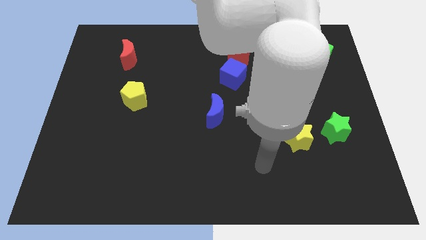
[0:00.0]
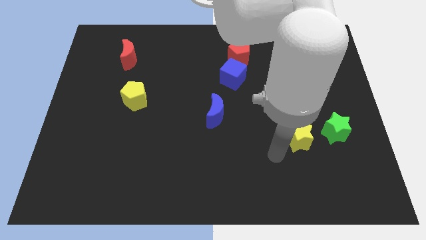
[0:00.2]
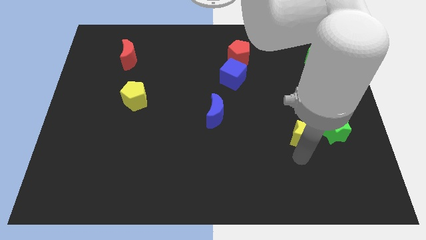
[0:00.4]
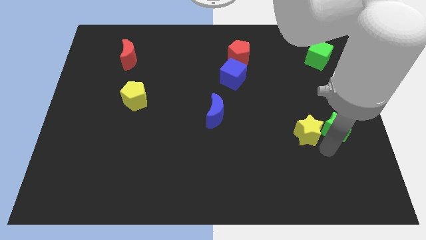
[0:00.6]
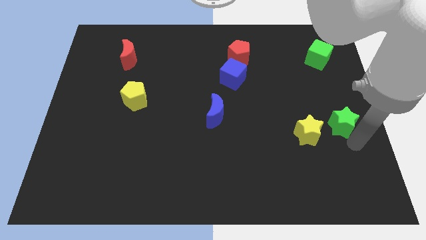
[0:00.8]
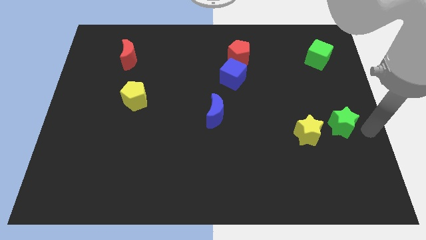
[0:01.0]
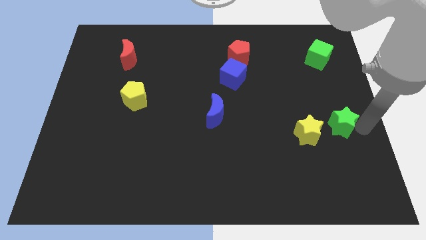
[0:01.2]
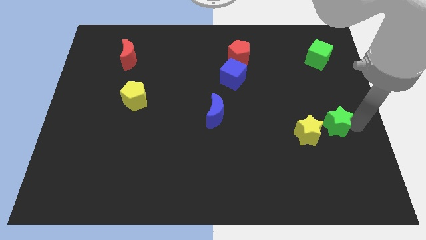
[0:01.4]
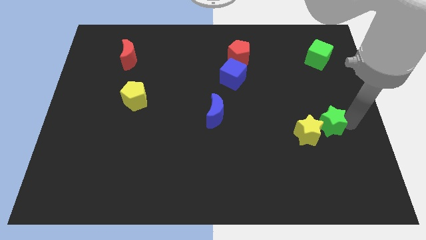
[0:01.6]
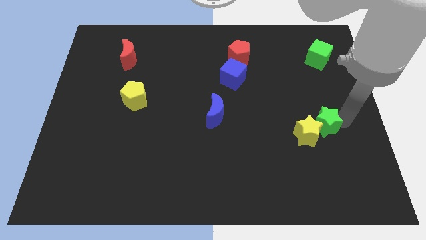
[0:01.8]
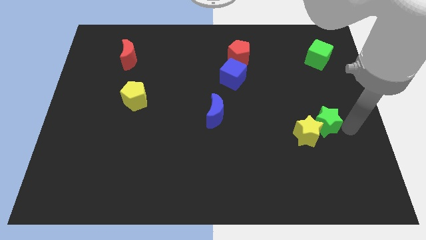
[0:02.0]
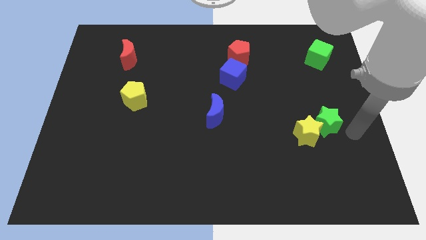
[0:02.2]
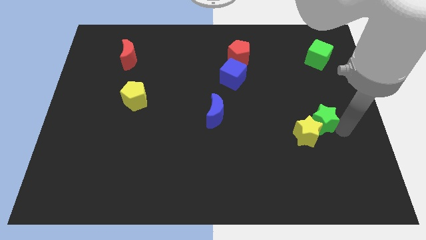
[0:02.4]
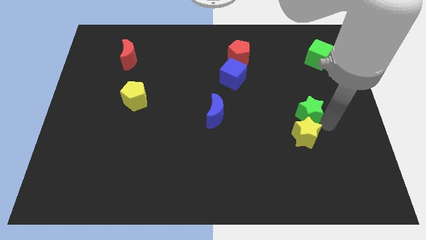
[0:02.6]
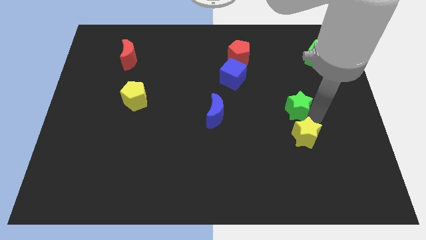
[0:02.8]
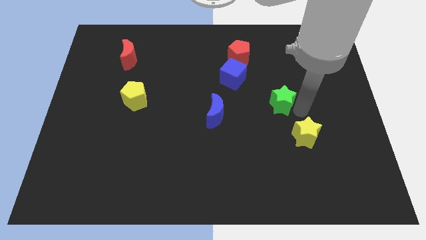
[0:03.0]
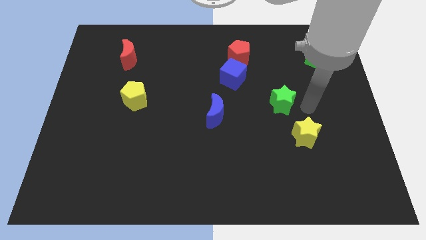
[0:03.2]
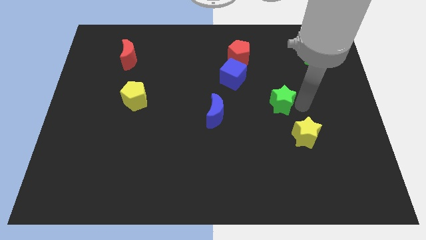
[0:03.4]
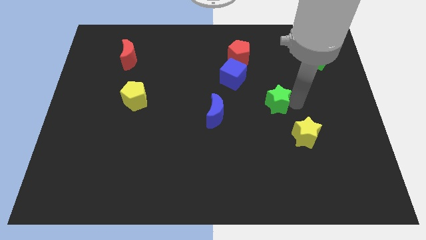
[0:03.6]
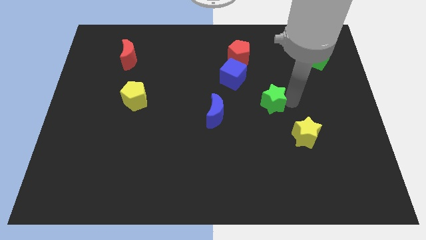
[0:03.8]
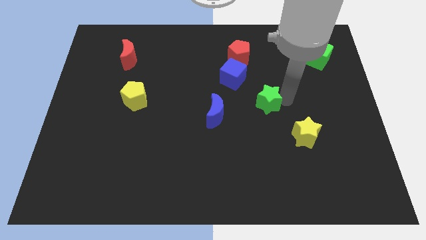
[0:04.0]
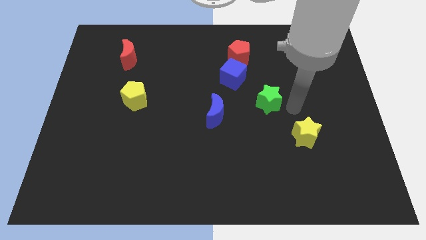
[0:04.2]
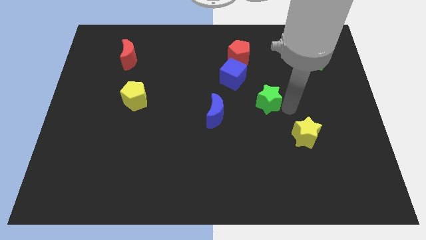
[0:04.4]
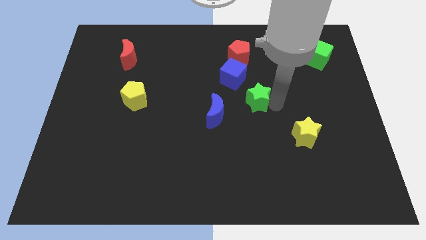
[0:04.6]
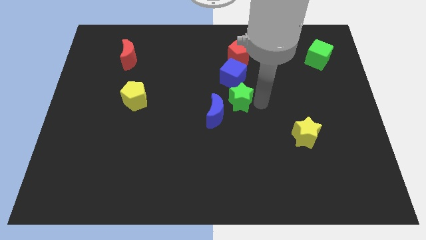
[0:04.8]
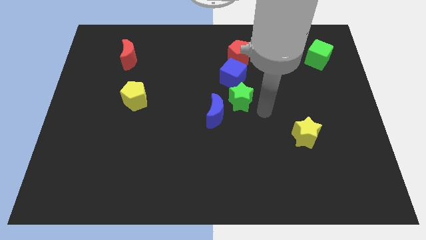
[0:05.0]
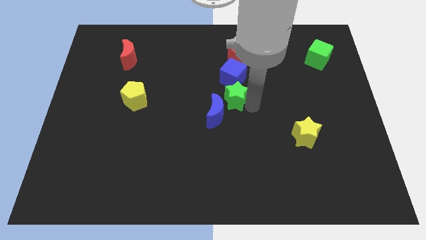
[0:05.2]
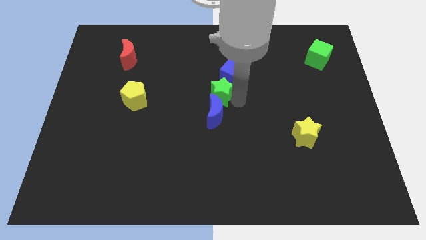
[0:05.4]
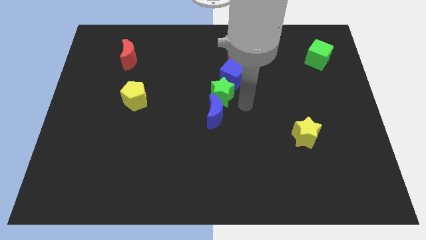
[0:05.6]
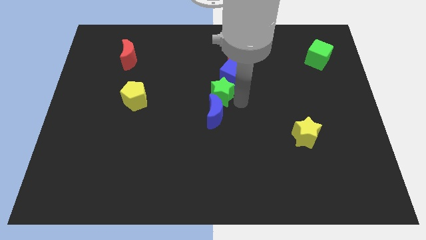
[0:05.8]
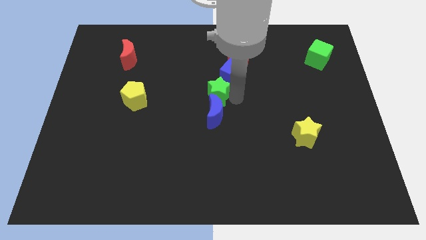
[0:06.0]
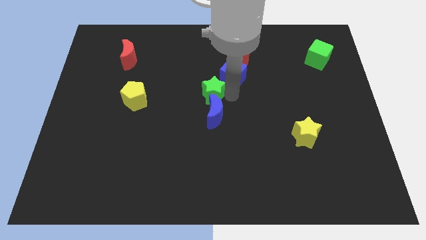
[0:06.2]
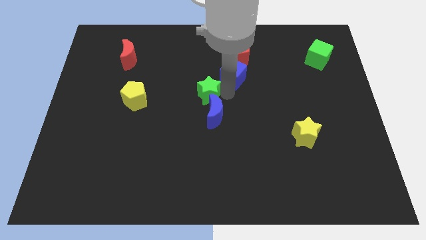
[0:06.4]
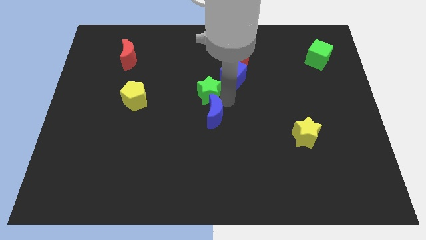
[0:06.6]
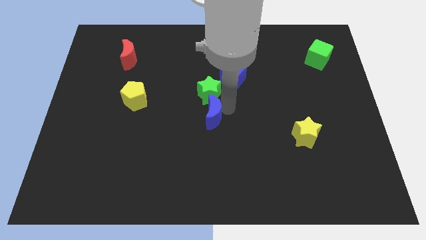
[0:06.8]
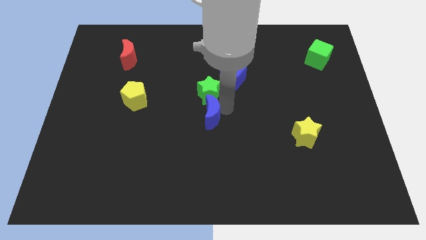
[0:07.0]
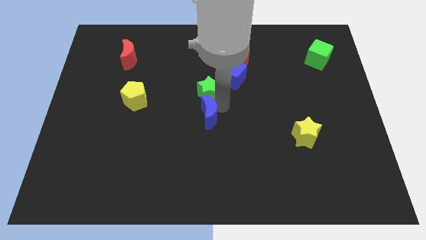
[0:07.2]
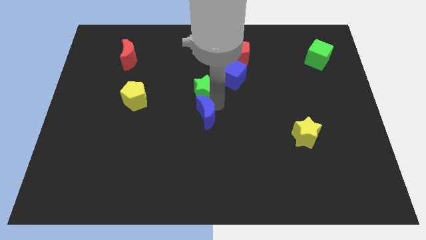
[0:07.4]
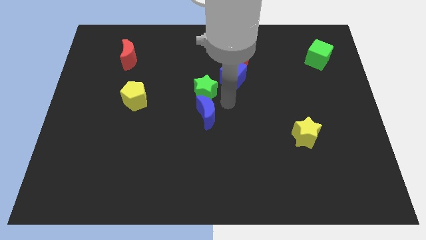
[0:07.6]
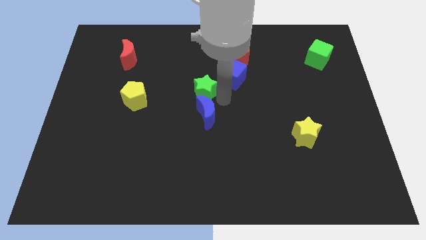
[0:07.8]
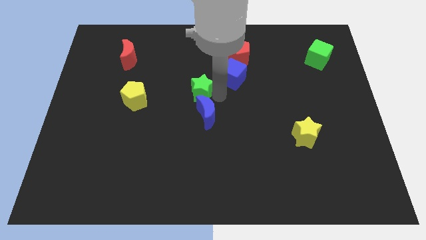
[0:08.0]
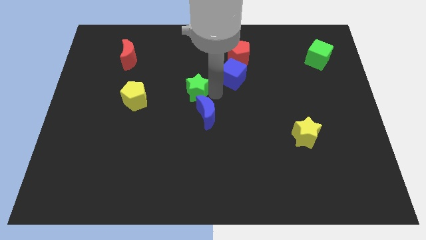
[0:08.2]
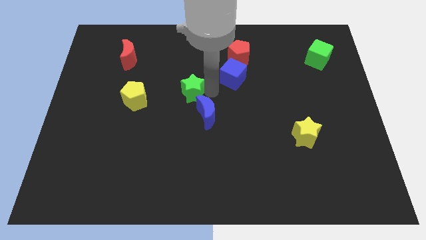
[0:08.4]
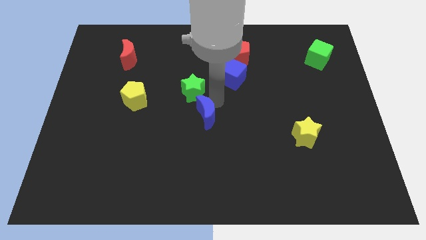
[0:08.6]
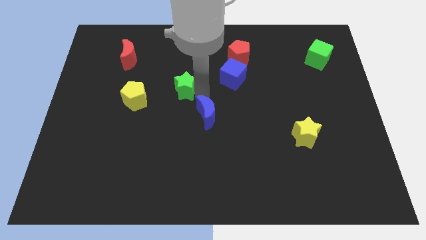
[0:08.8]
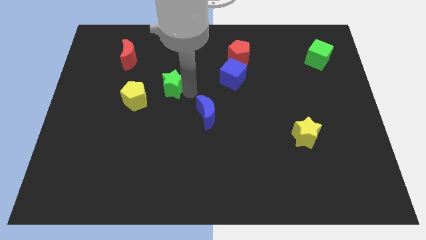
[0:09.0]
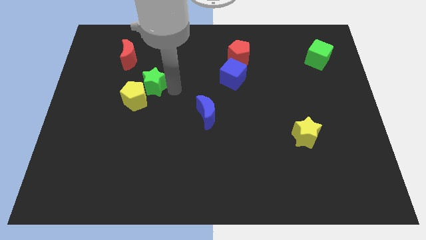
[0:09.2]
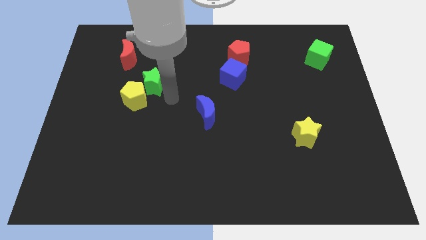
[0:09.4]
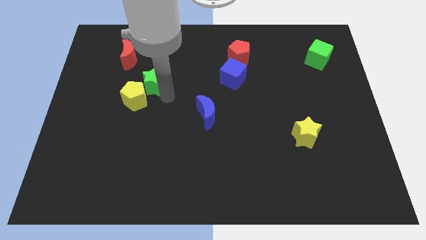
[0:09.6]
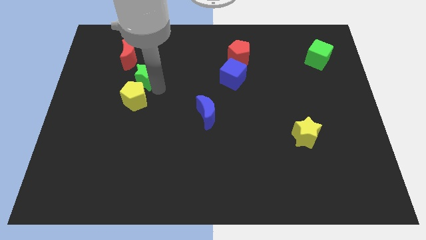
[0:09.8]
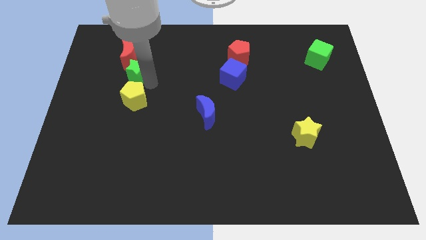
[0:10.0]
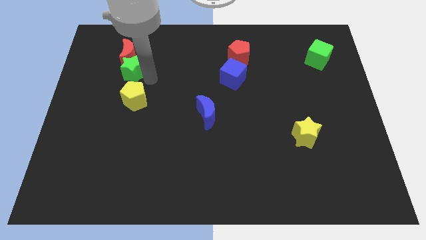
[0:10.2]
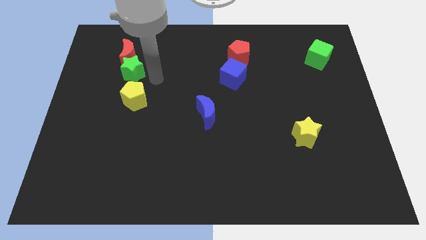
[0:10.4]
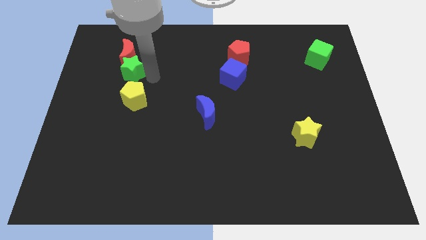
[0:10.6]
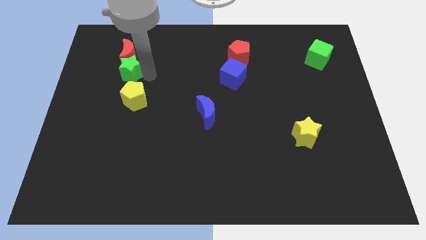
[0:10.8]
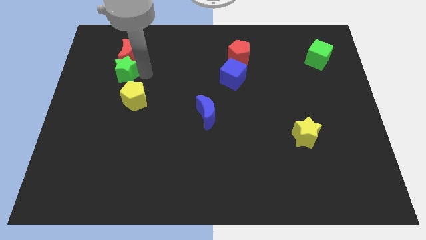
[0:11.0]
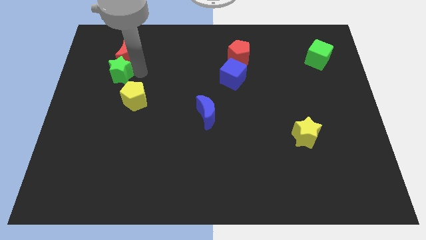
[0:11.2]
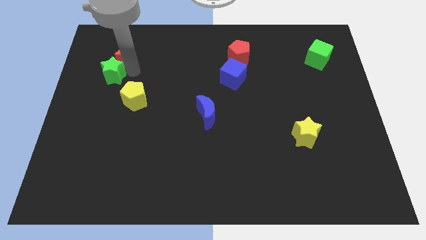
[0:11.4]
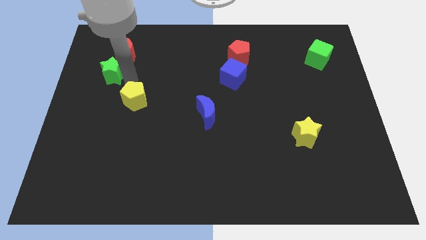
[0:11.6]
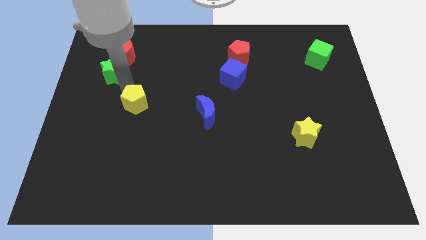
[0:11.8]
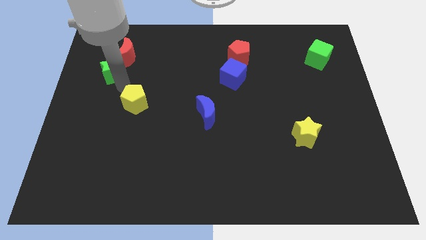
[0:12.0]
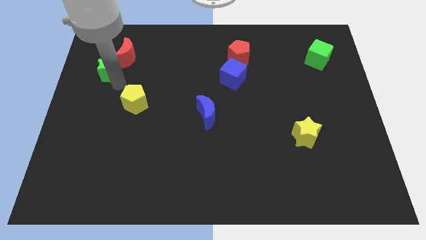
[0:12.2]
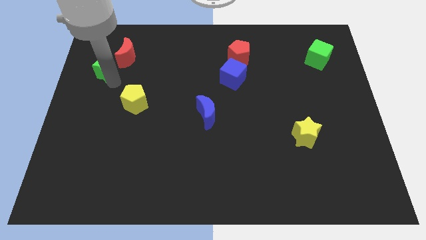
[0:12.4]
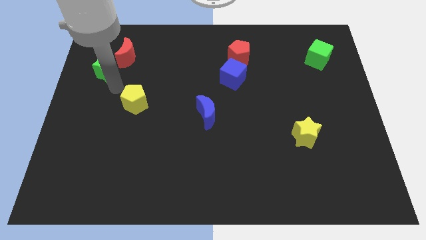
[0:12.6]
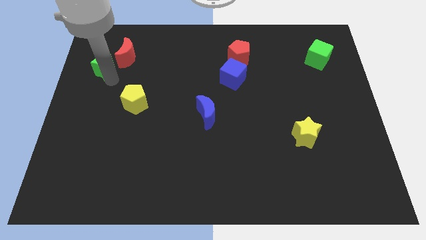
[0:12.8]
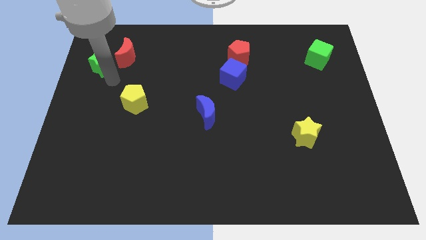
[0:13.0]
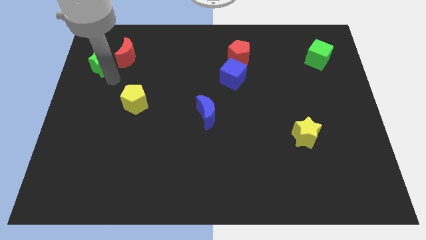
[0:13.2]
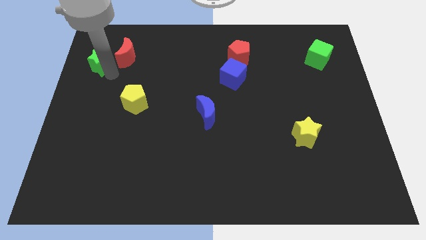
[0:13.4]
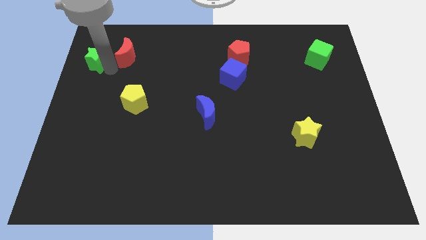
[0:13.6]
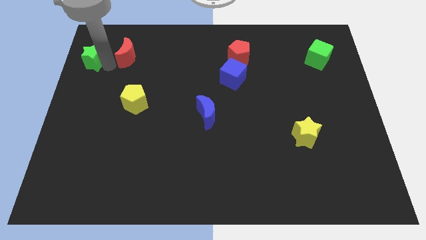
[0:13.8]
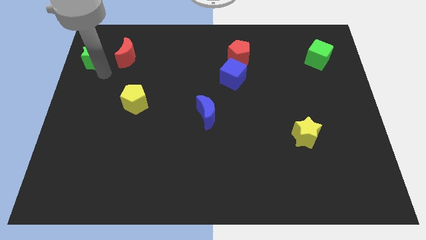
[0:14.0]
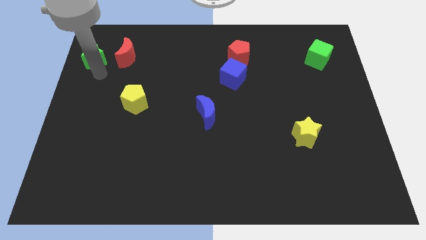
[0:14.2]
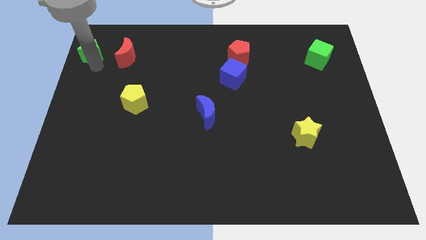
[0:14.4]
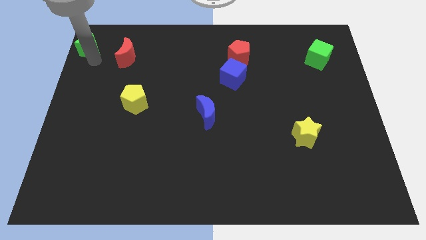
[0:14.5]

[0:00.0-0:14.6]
slide the green star to the upper left corner
